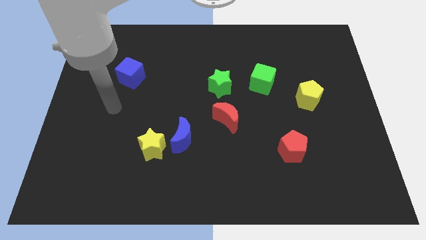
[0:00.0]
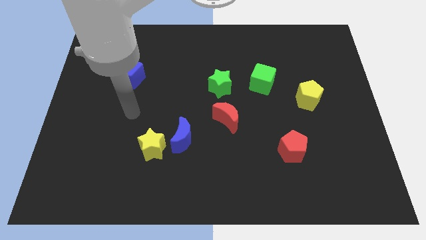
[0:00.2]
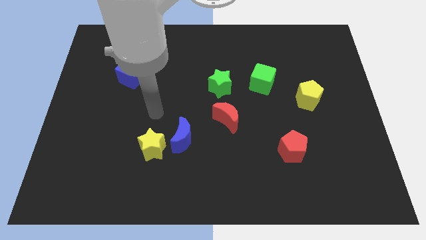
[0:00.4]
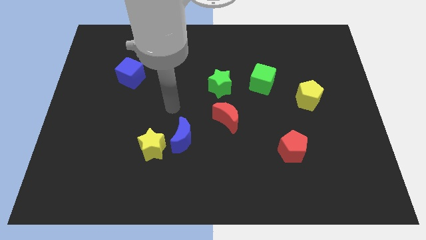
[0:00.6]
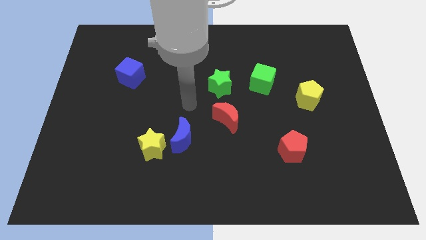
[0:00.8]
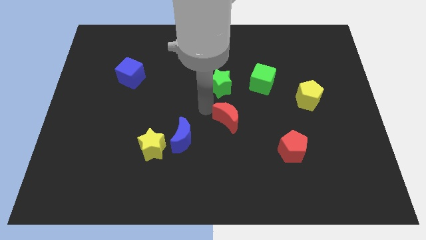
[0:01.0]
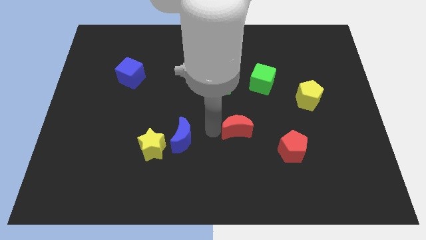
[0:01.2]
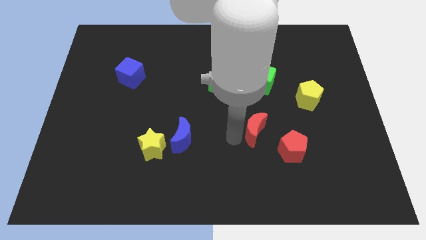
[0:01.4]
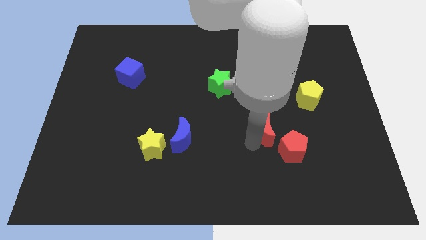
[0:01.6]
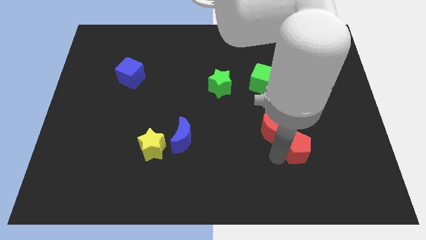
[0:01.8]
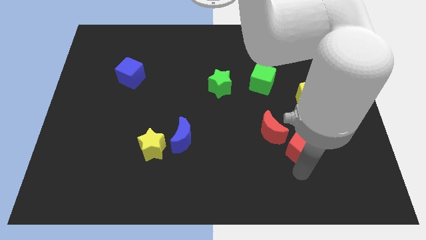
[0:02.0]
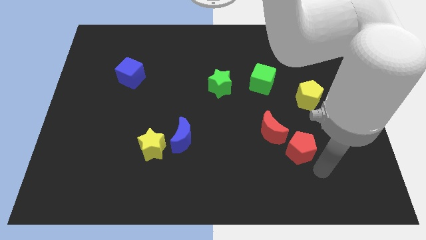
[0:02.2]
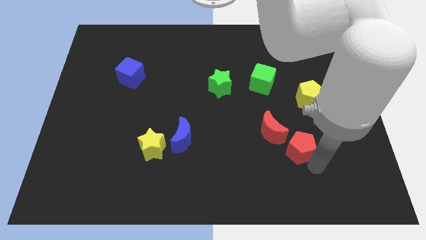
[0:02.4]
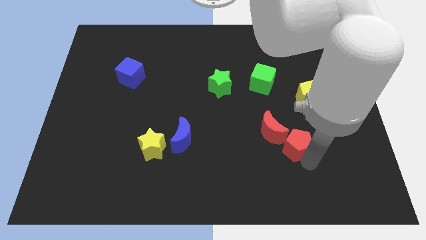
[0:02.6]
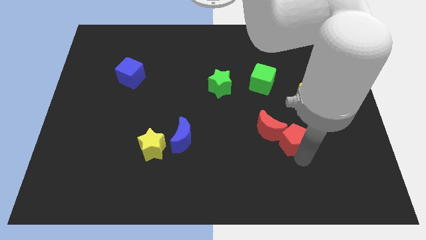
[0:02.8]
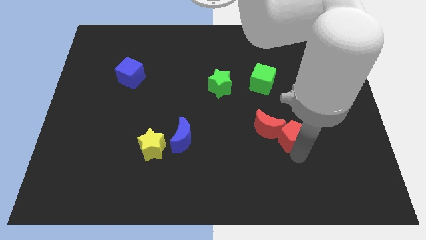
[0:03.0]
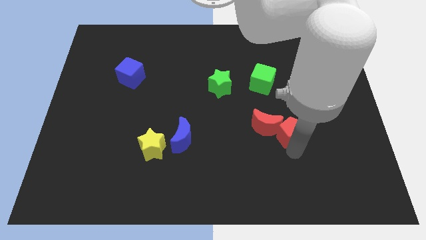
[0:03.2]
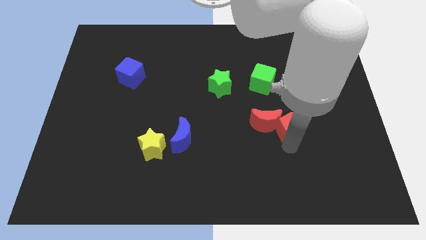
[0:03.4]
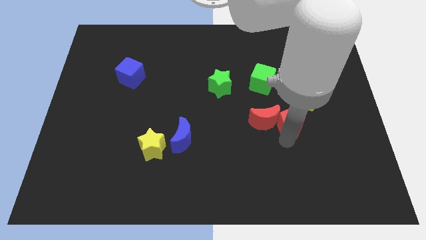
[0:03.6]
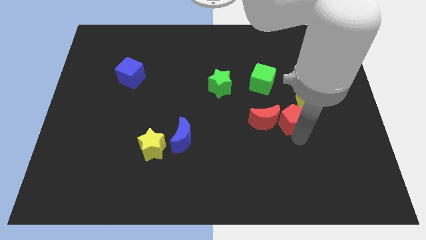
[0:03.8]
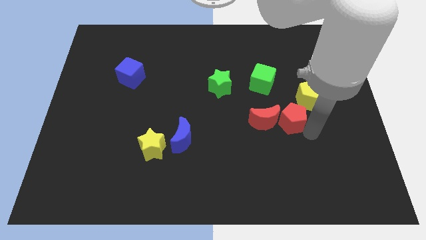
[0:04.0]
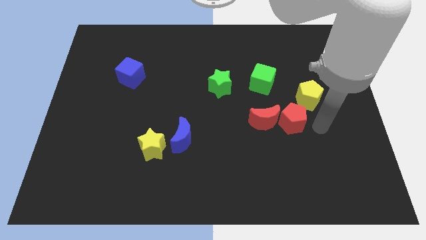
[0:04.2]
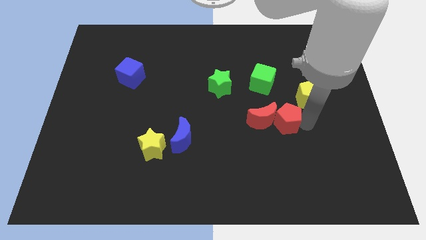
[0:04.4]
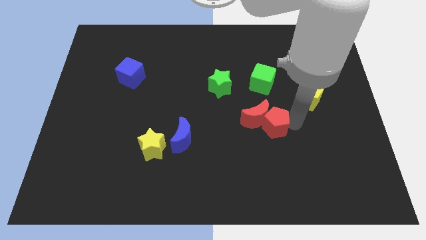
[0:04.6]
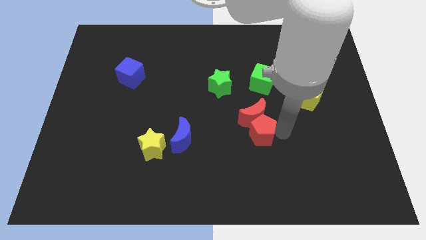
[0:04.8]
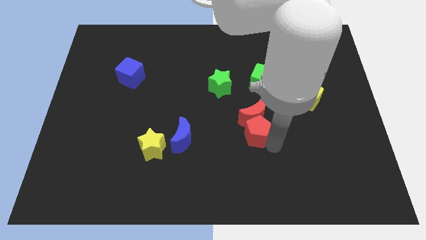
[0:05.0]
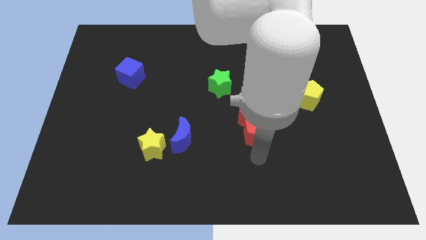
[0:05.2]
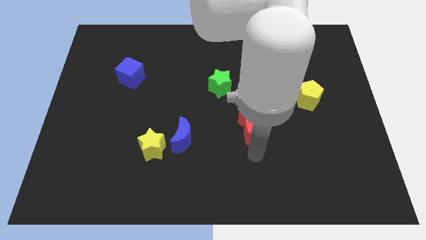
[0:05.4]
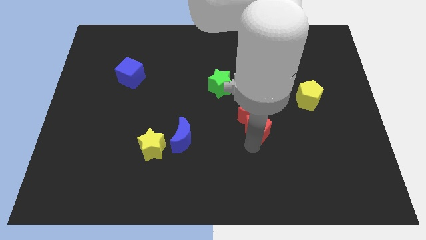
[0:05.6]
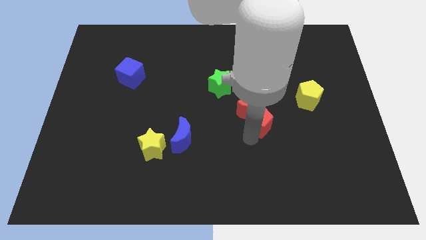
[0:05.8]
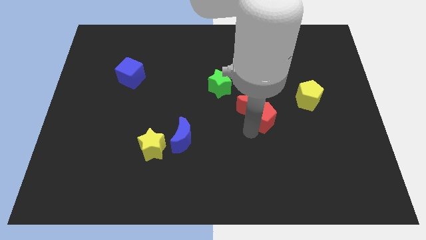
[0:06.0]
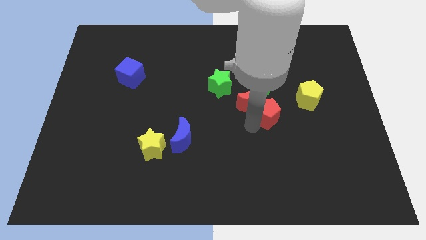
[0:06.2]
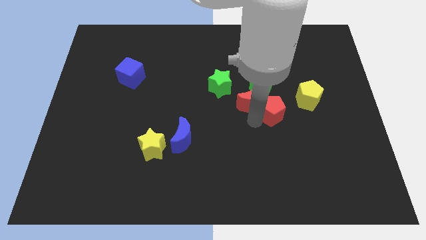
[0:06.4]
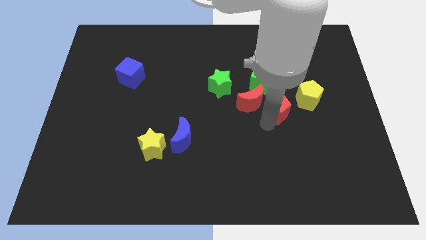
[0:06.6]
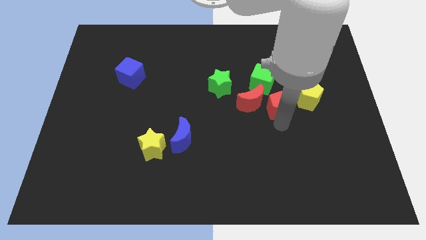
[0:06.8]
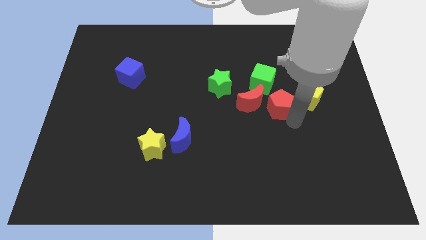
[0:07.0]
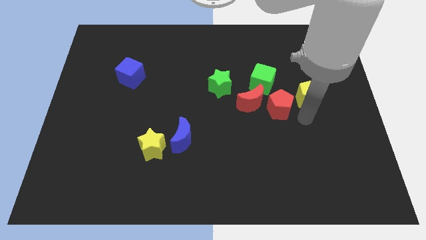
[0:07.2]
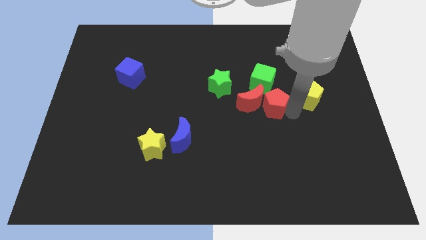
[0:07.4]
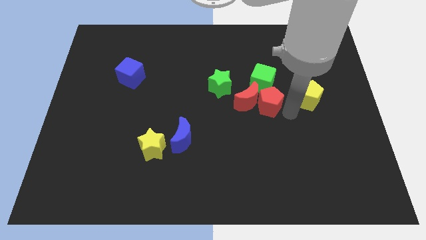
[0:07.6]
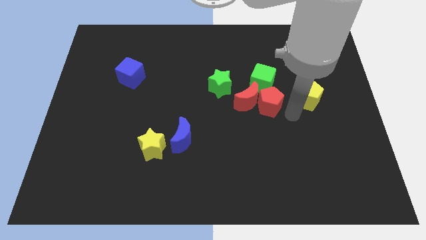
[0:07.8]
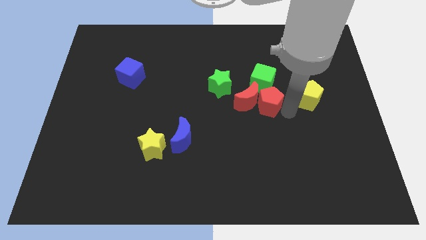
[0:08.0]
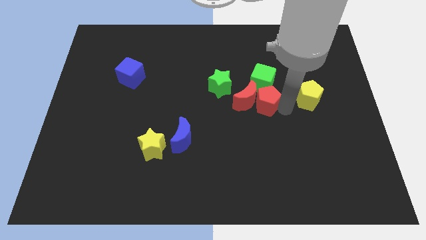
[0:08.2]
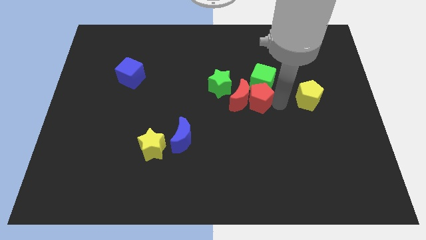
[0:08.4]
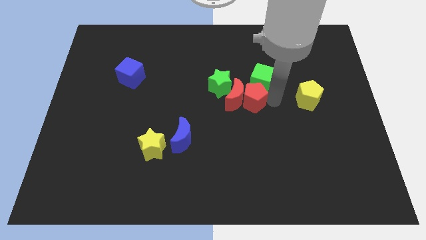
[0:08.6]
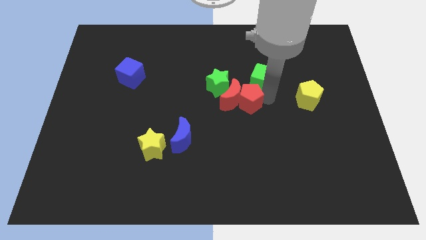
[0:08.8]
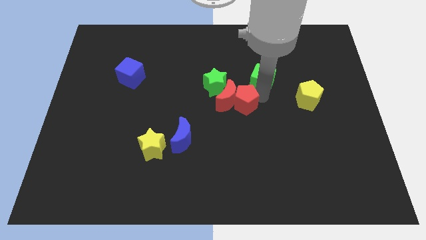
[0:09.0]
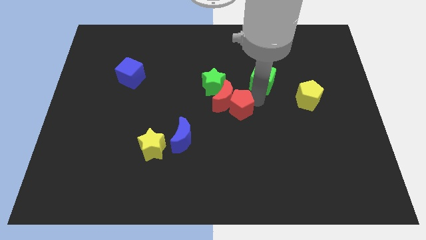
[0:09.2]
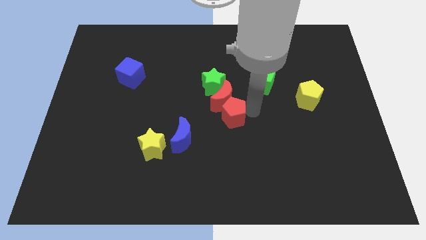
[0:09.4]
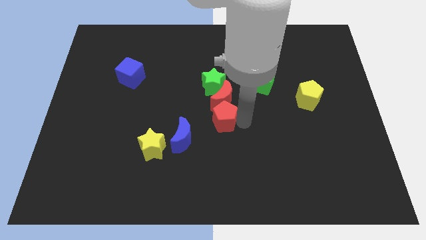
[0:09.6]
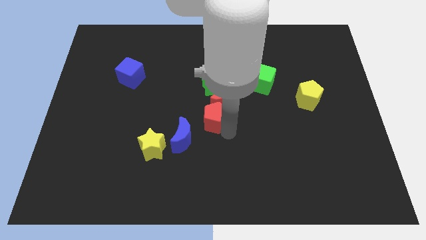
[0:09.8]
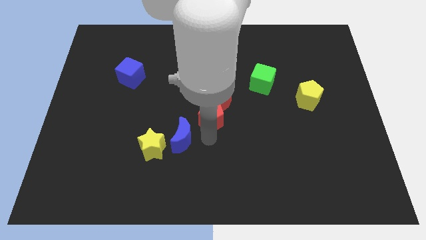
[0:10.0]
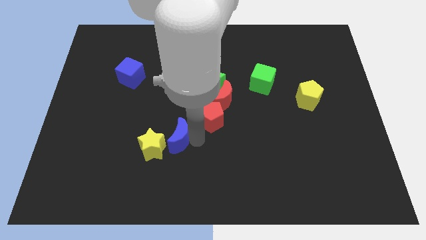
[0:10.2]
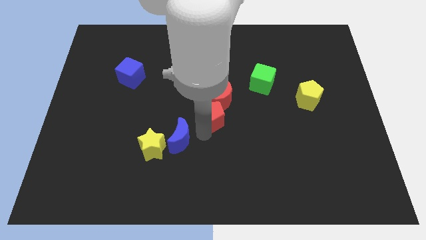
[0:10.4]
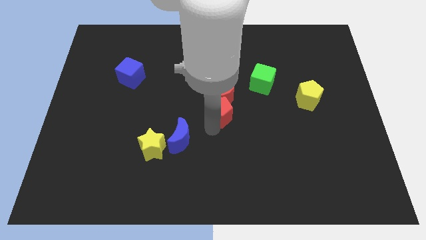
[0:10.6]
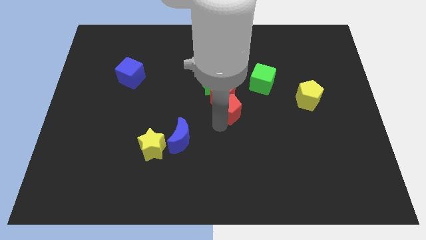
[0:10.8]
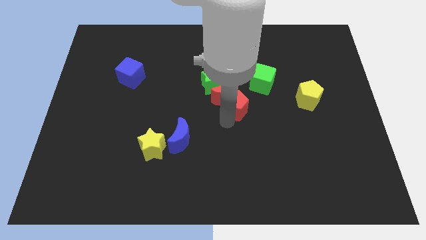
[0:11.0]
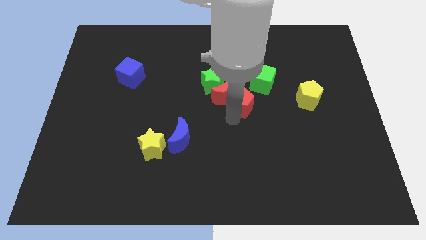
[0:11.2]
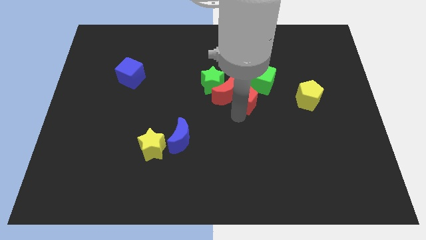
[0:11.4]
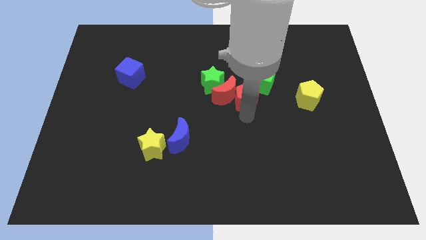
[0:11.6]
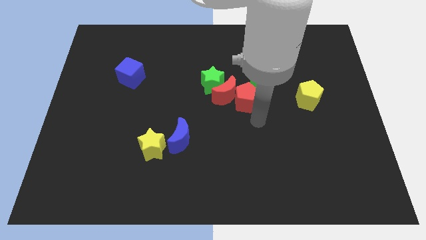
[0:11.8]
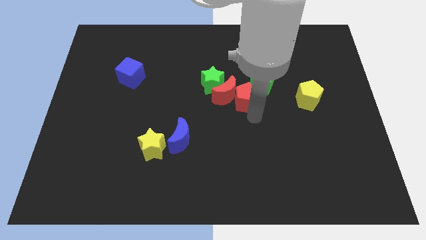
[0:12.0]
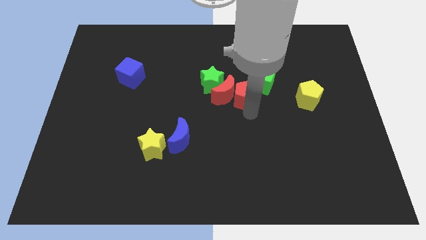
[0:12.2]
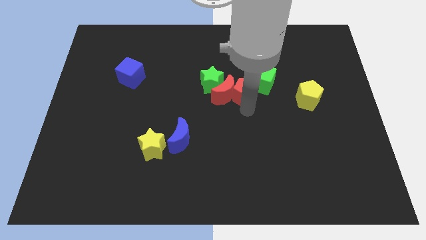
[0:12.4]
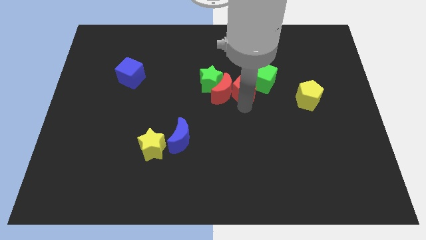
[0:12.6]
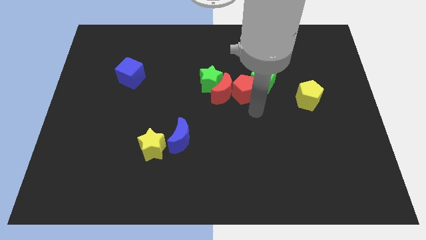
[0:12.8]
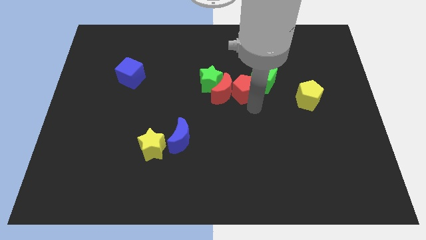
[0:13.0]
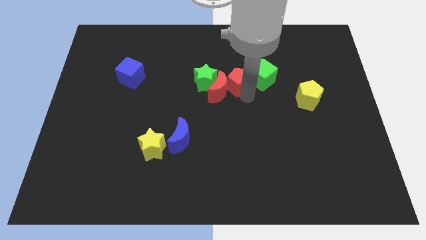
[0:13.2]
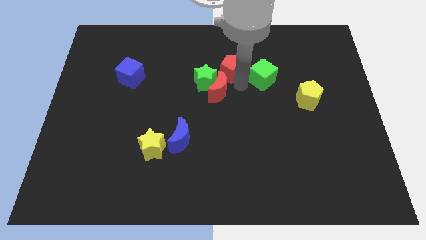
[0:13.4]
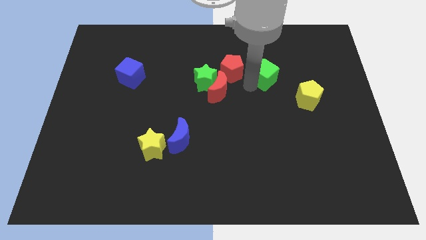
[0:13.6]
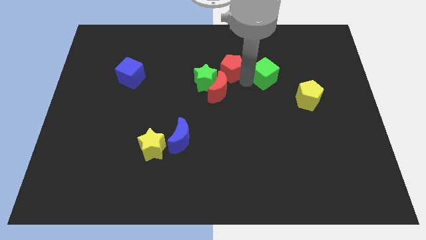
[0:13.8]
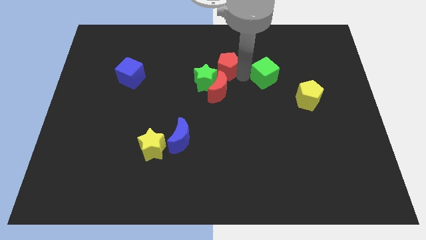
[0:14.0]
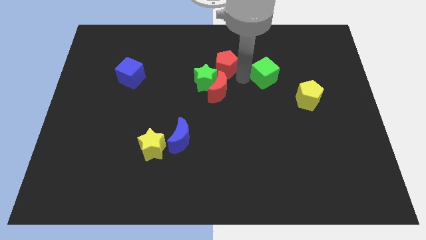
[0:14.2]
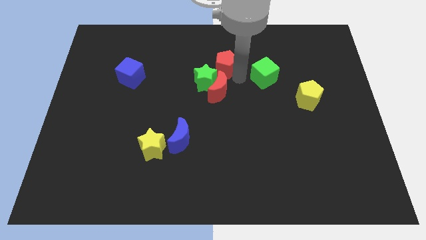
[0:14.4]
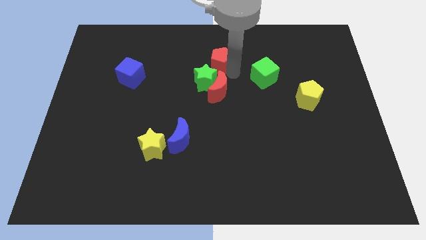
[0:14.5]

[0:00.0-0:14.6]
push the red pentagon above the green star

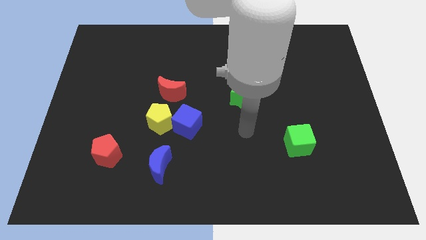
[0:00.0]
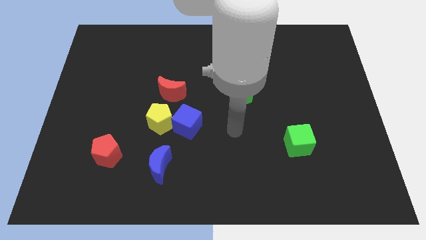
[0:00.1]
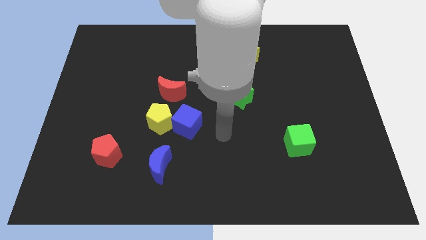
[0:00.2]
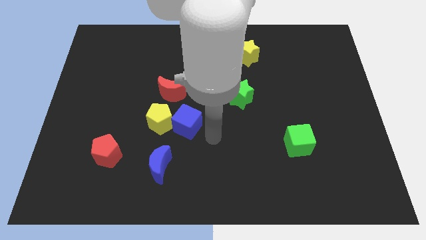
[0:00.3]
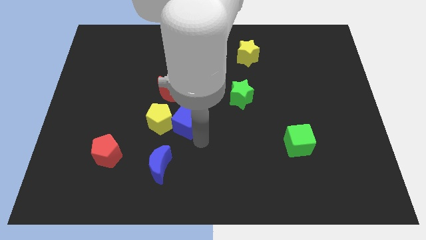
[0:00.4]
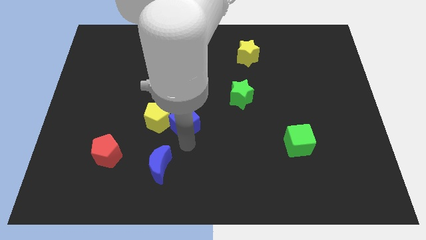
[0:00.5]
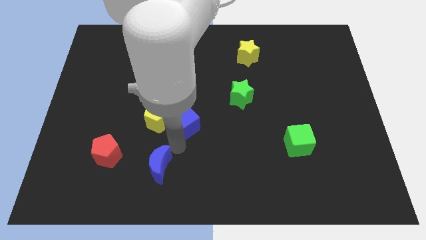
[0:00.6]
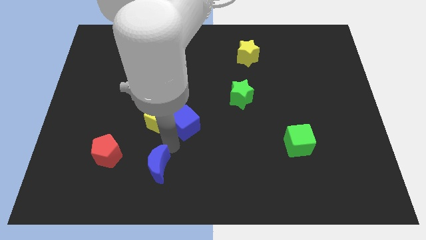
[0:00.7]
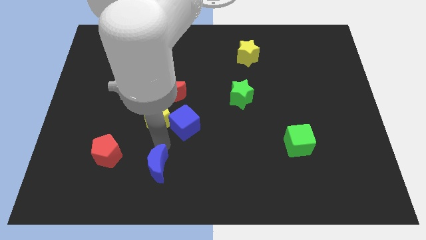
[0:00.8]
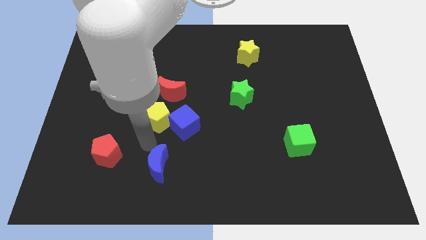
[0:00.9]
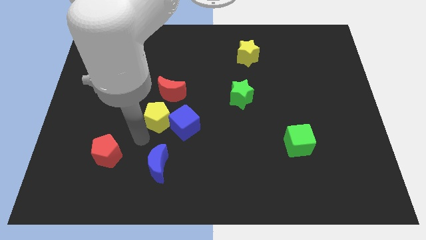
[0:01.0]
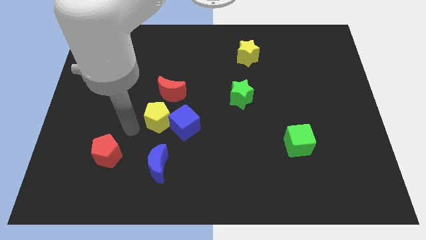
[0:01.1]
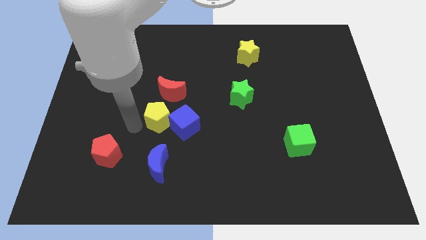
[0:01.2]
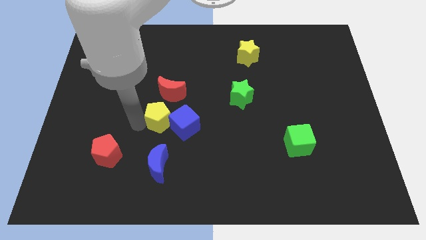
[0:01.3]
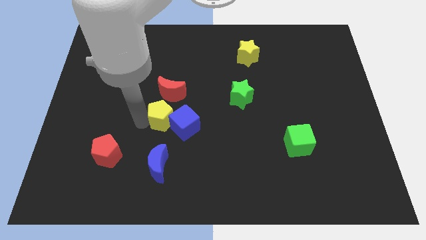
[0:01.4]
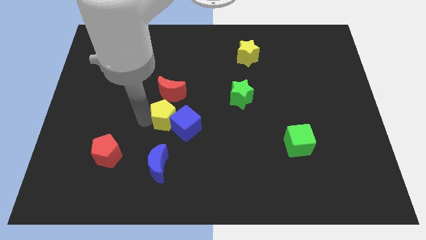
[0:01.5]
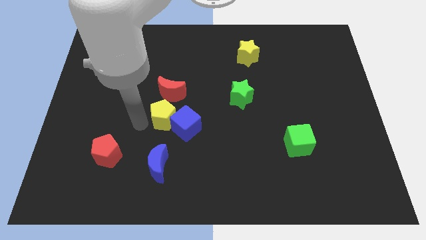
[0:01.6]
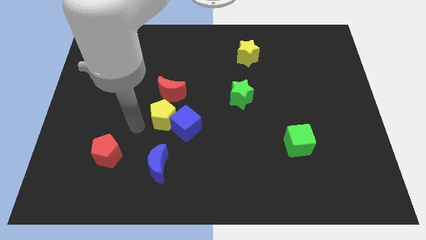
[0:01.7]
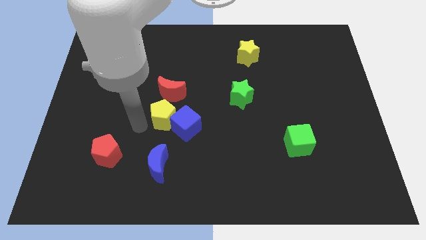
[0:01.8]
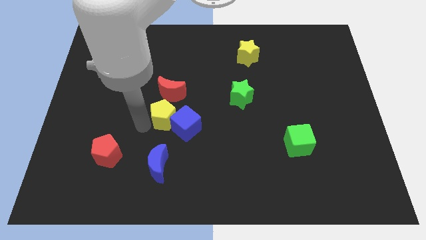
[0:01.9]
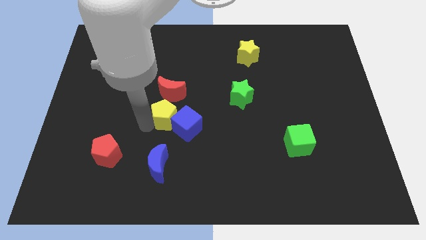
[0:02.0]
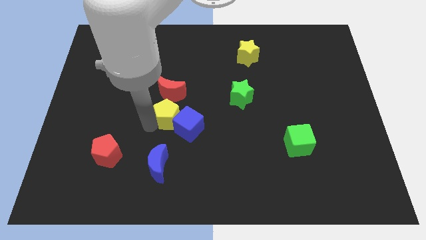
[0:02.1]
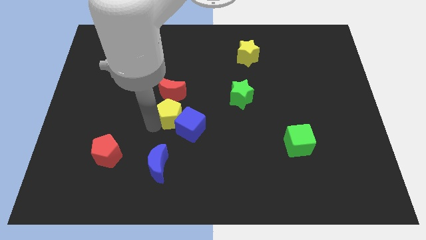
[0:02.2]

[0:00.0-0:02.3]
slide the yellow pentagon to the bottom right side of the red moon
